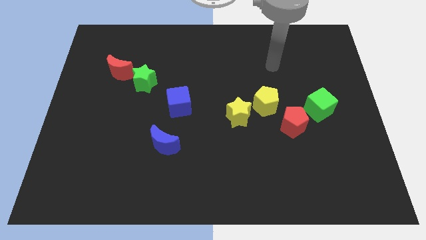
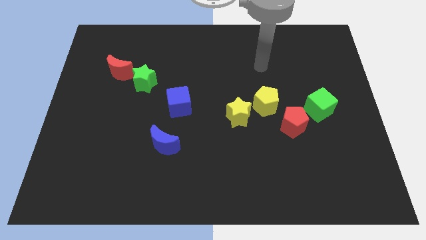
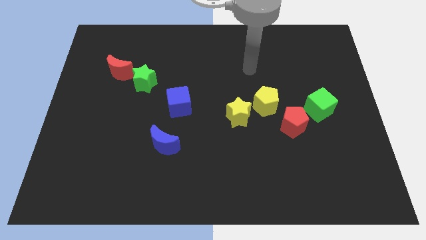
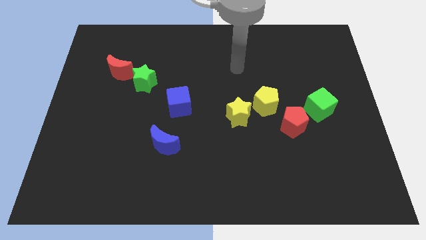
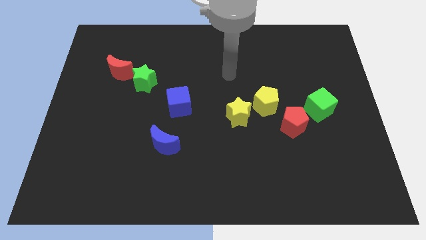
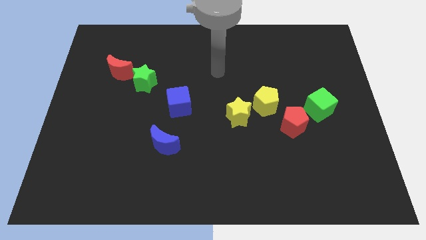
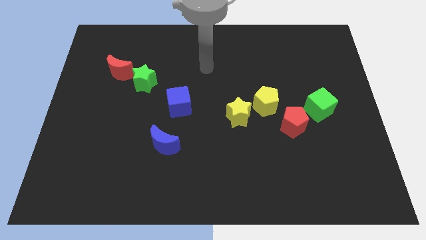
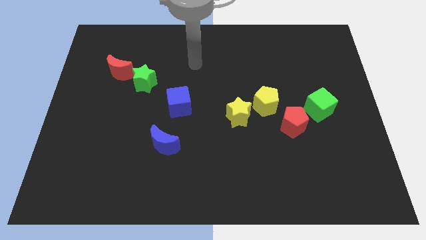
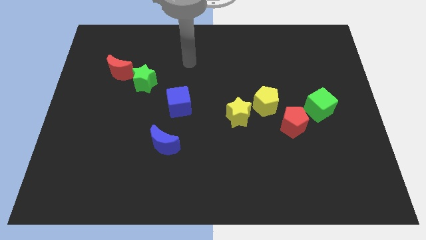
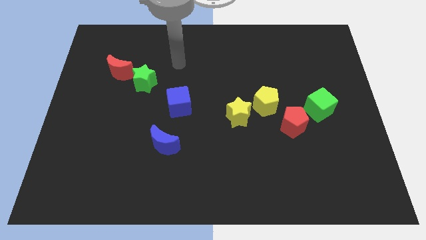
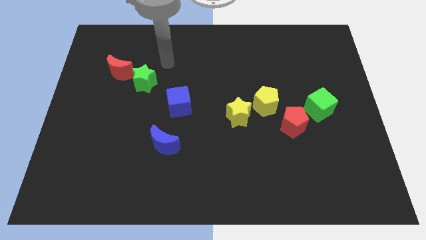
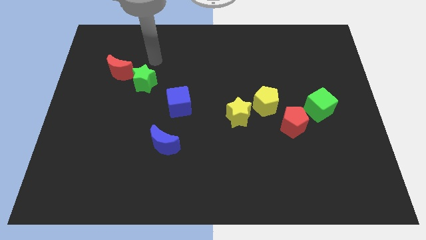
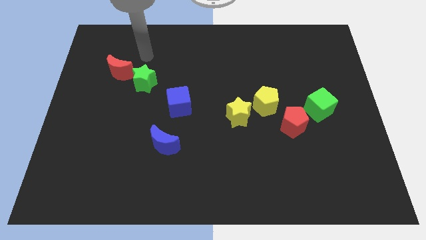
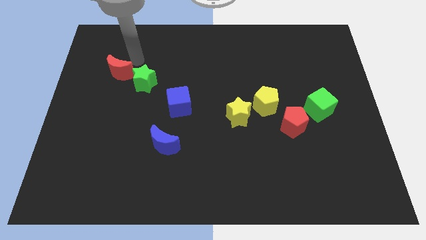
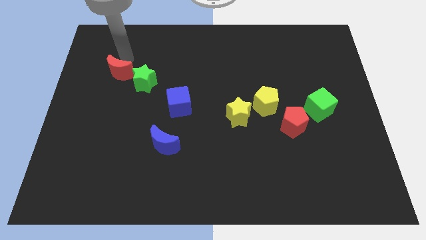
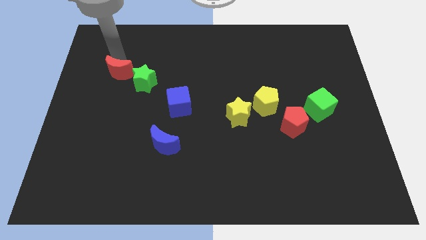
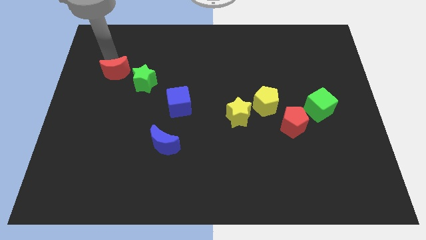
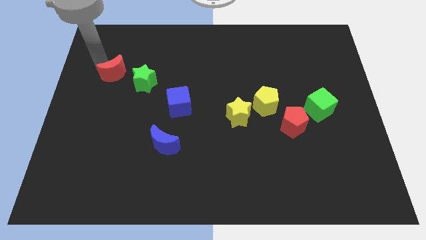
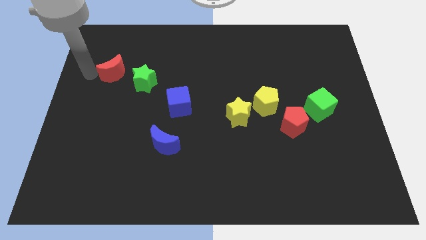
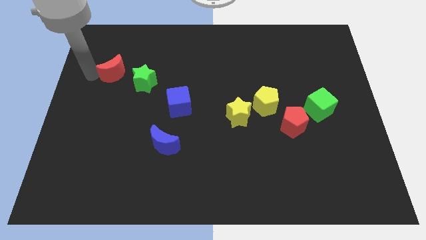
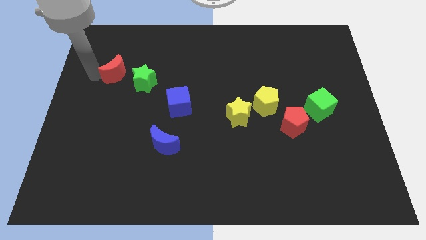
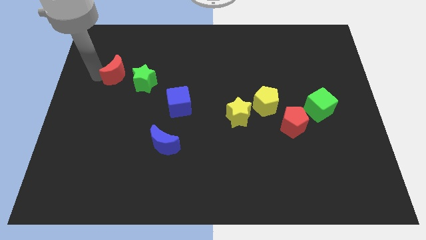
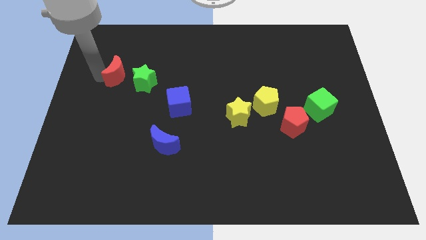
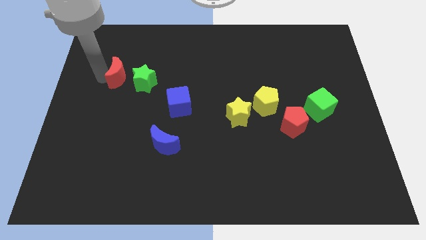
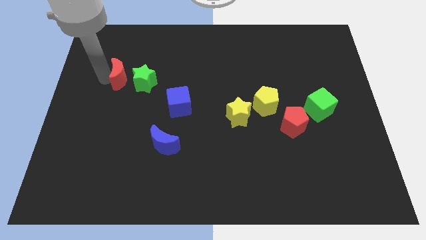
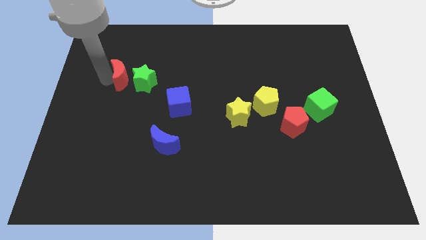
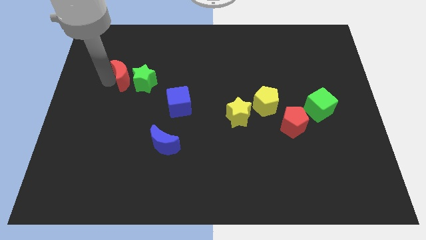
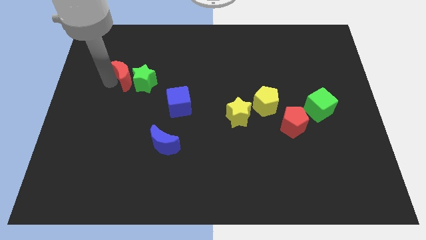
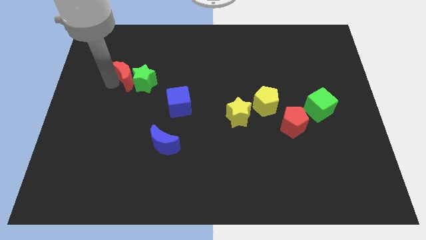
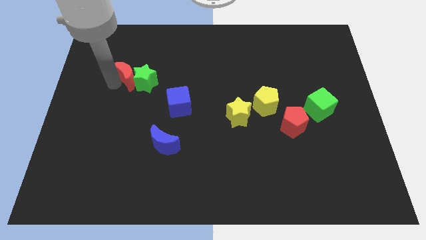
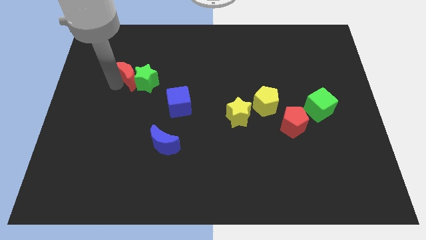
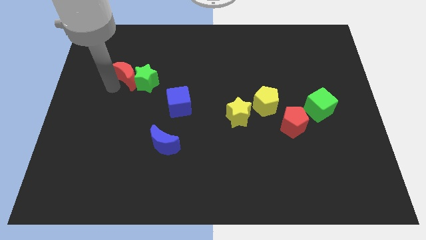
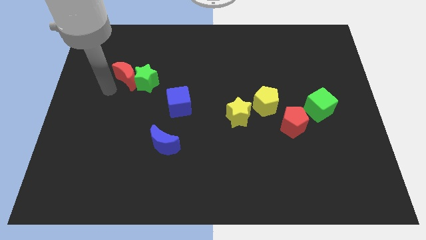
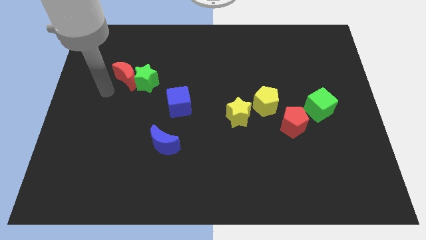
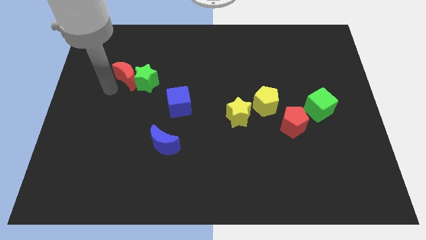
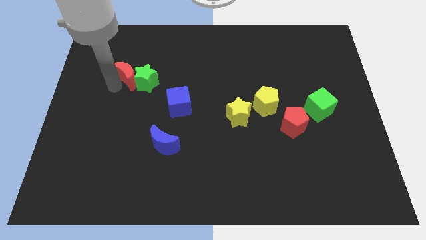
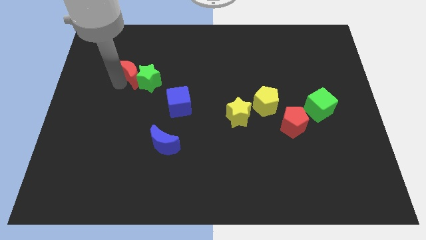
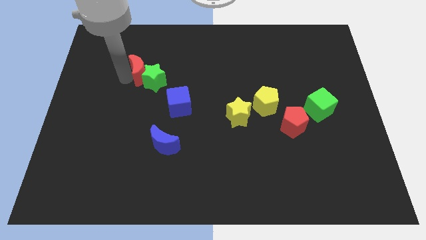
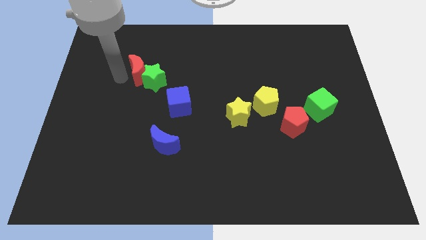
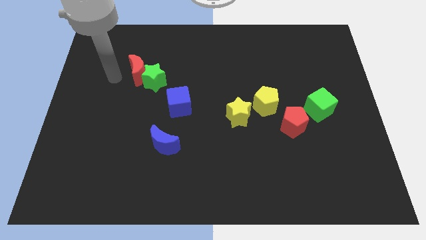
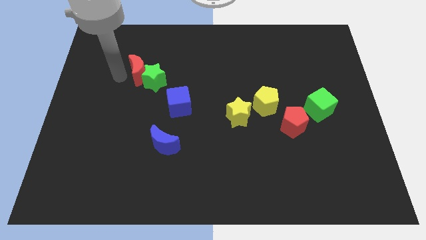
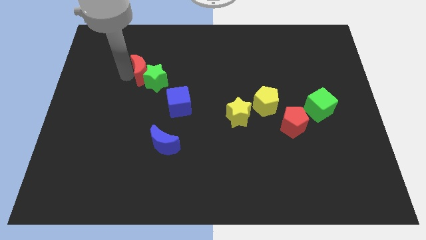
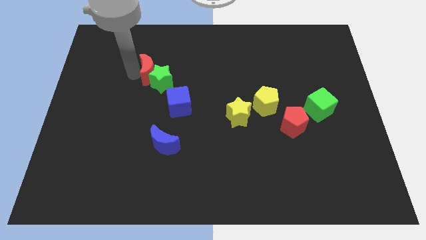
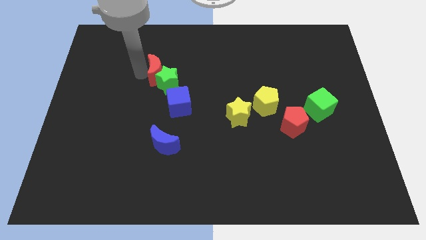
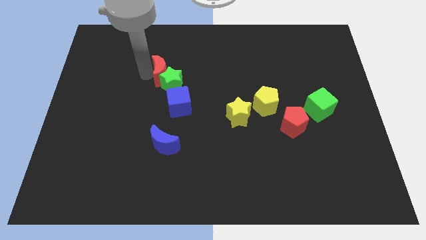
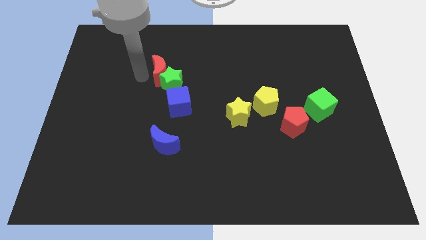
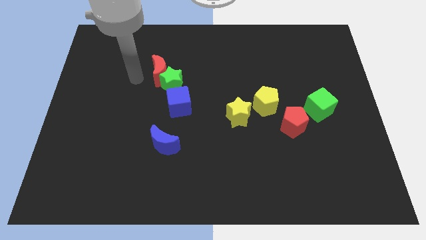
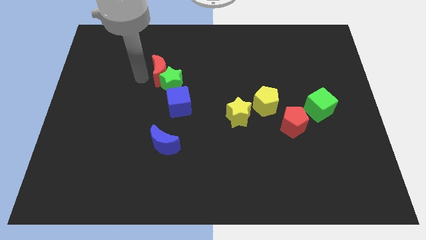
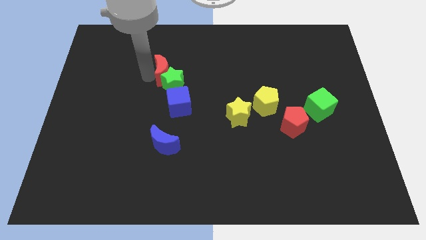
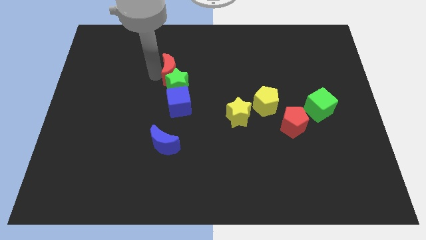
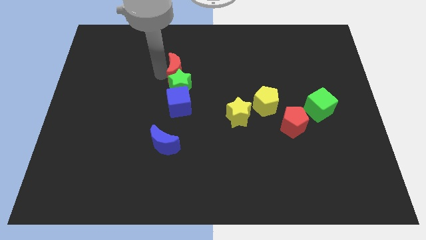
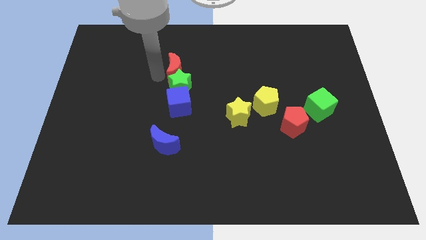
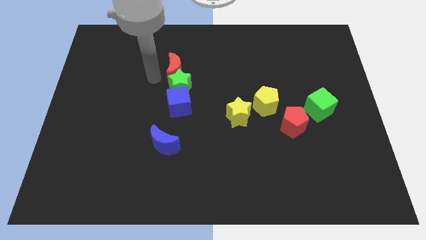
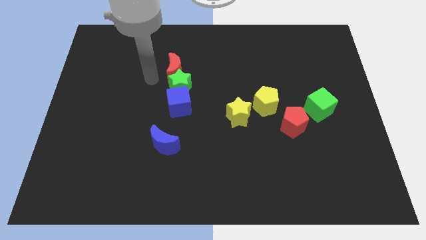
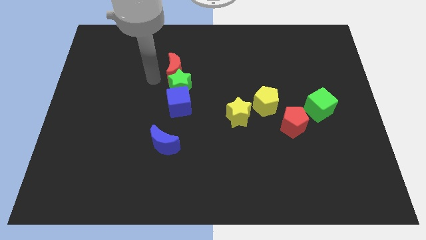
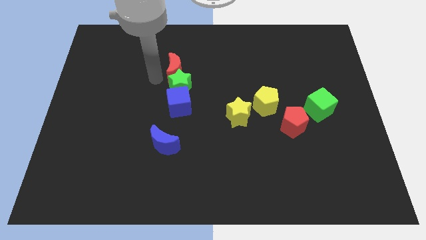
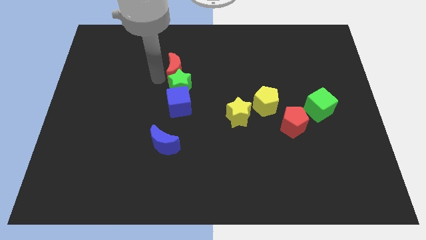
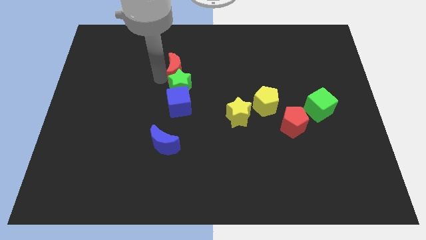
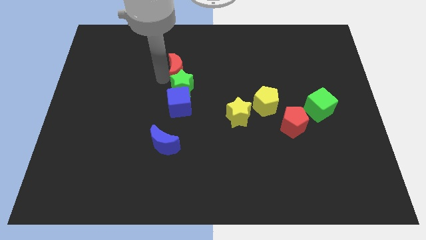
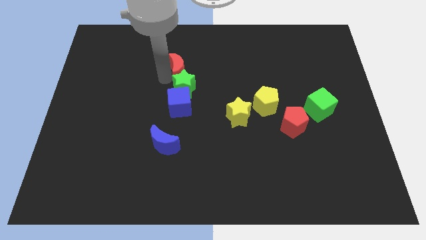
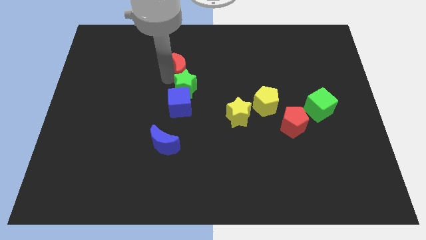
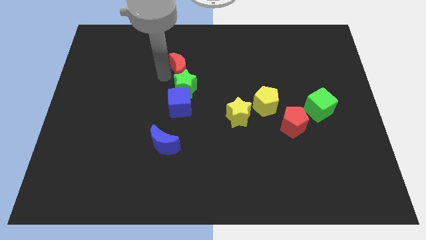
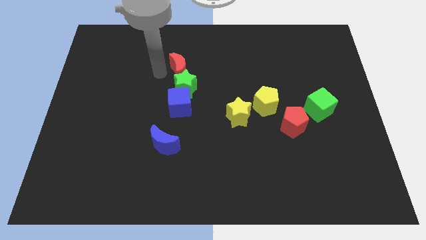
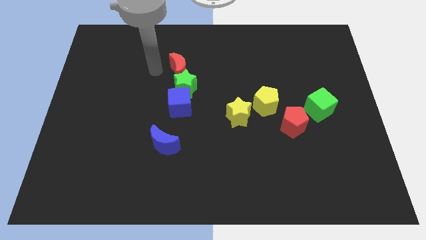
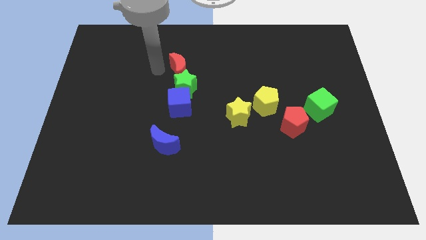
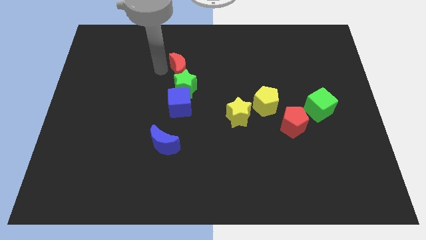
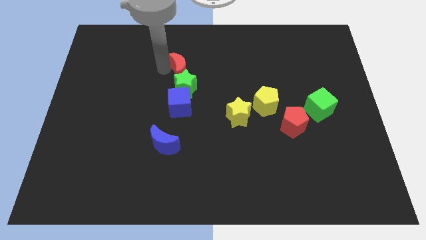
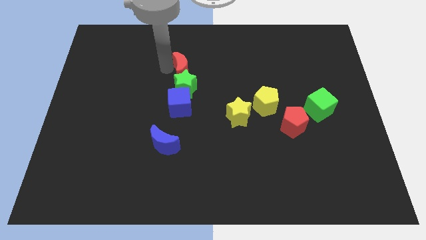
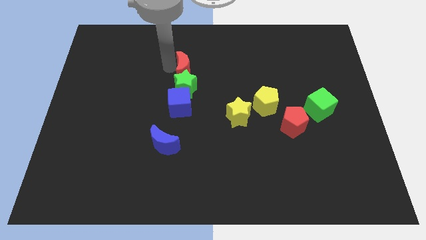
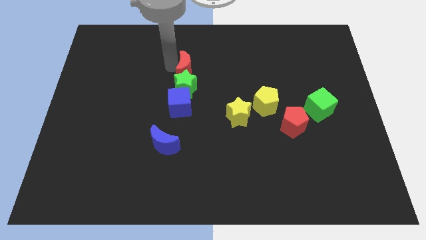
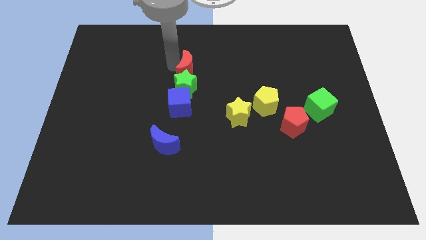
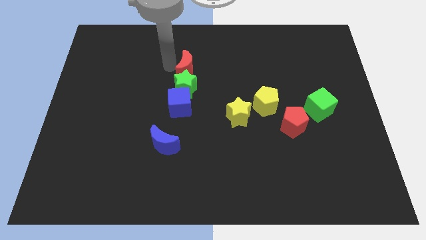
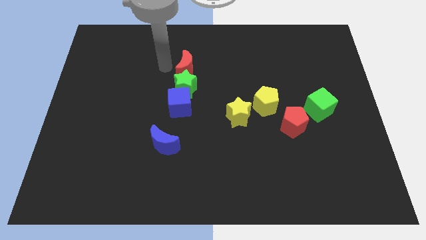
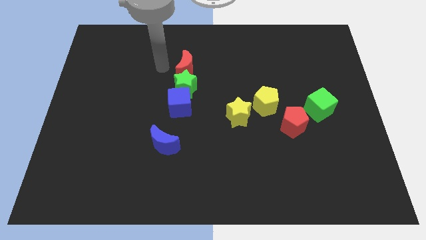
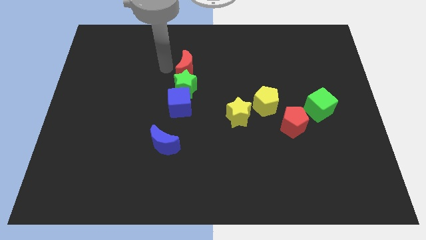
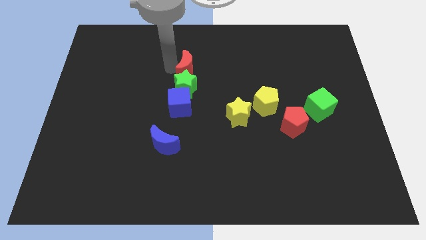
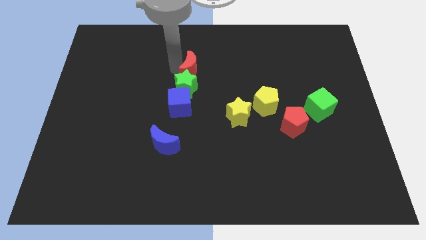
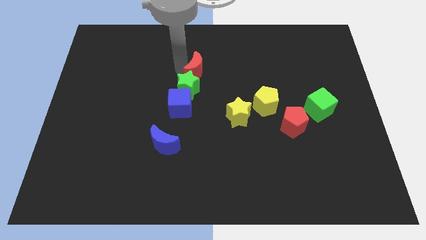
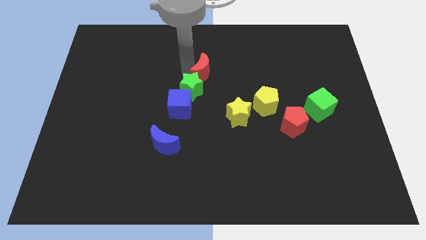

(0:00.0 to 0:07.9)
push the red moon right

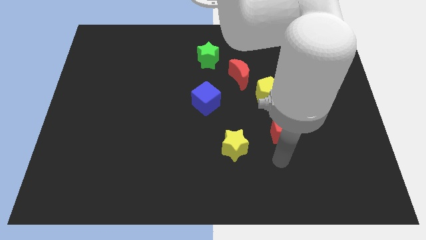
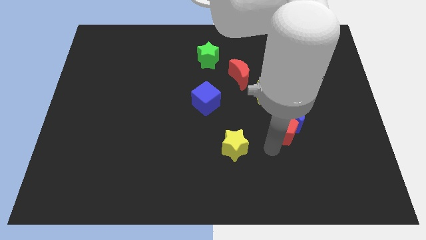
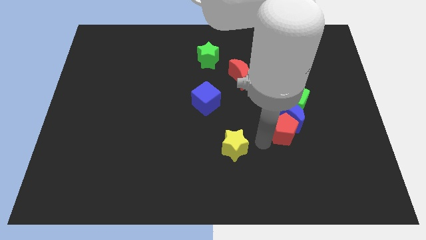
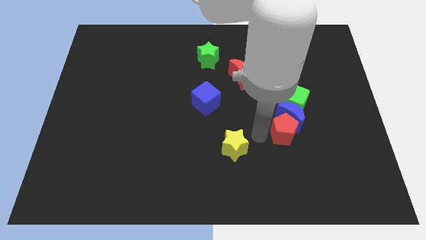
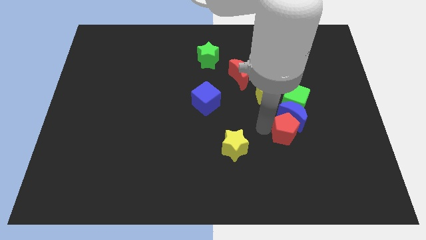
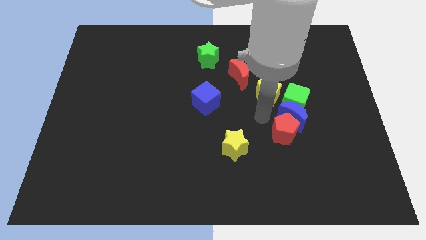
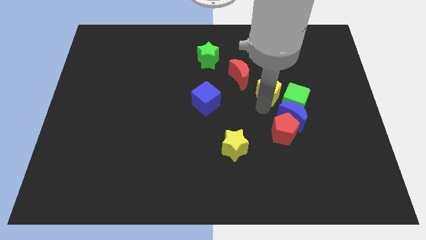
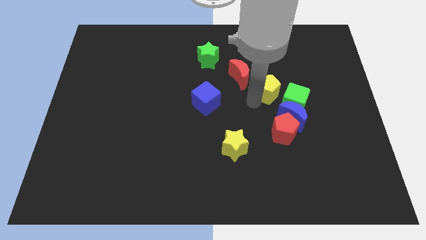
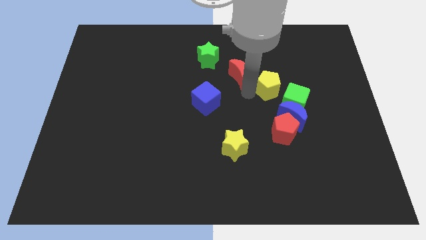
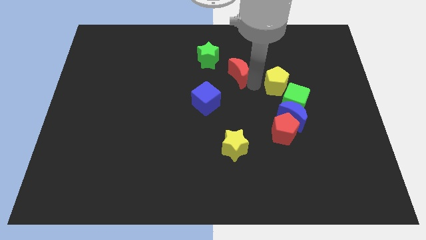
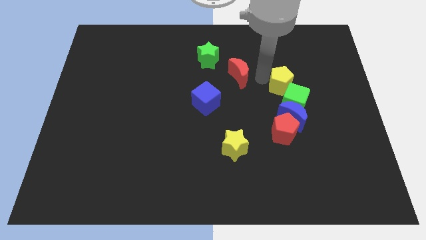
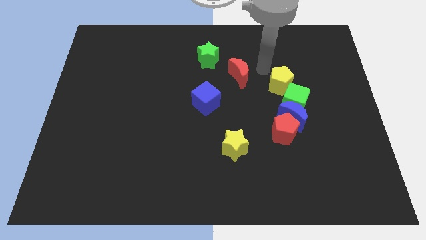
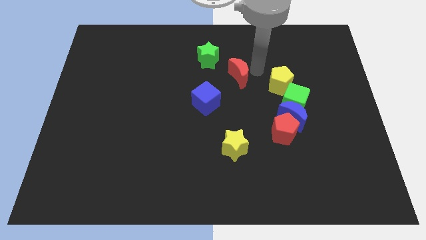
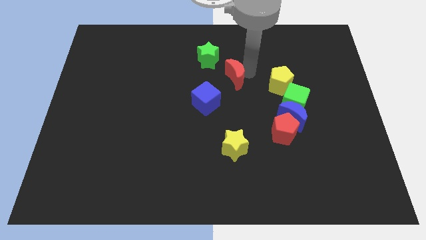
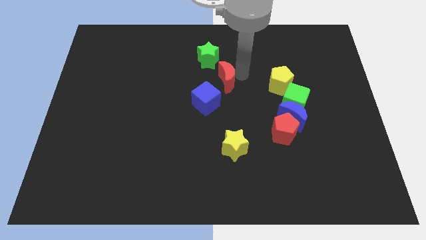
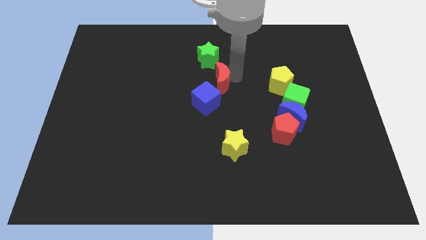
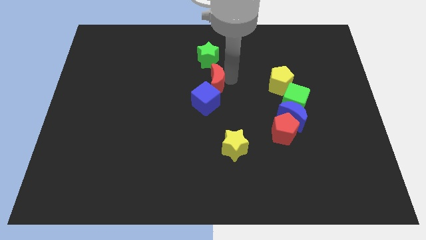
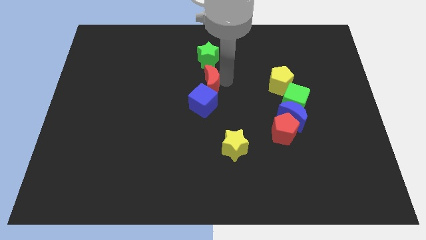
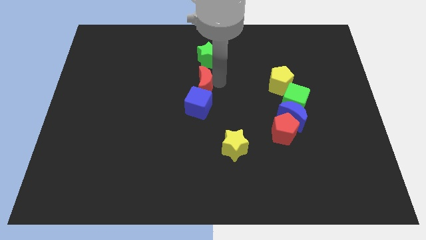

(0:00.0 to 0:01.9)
push the red moon slightly downwards and left diagonally
